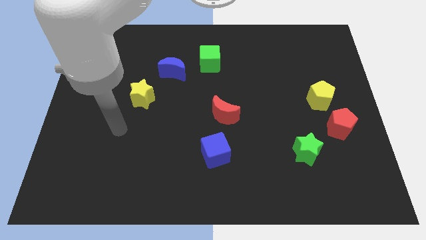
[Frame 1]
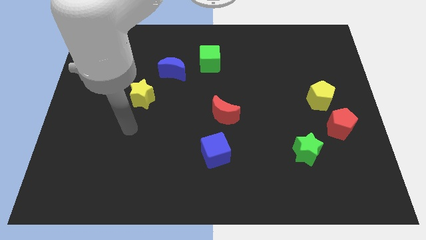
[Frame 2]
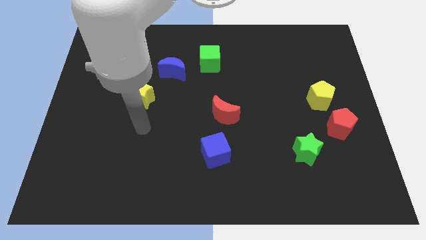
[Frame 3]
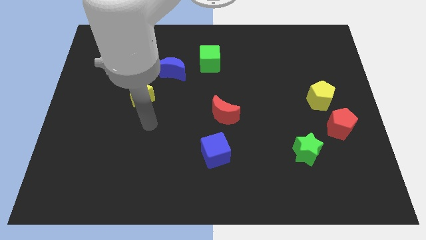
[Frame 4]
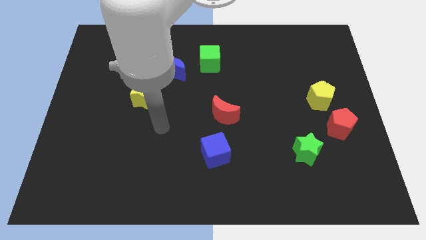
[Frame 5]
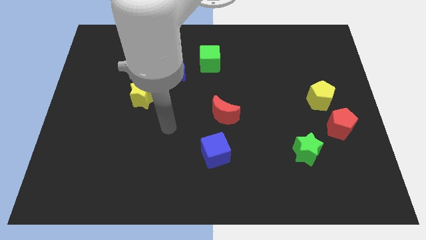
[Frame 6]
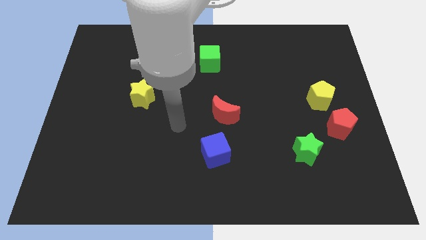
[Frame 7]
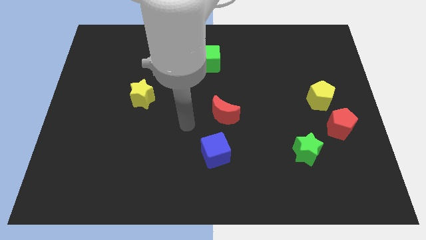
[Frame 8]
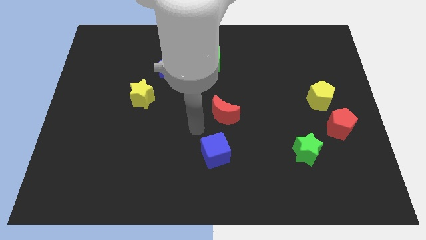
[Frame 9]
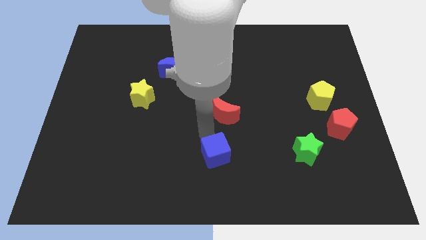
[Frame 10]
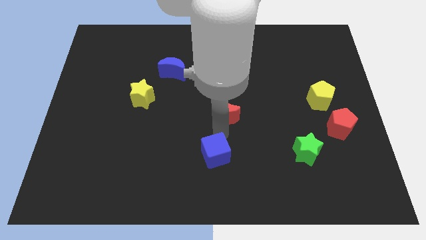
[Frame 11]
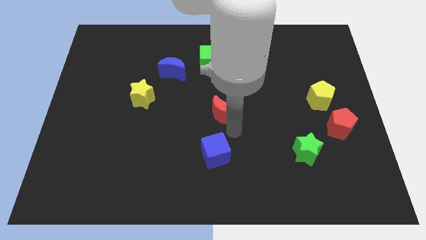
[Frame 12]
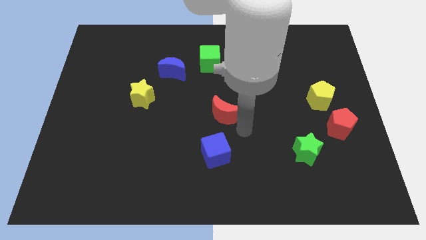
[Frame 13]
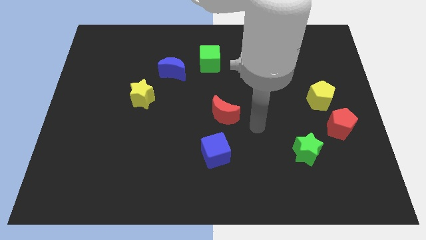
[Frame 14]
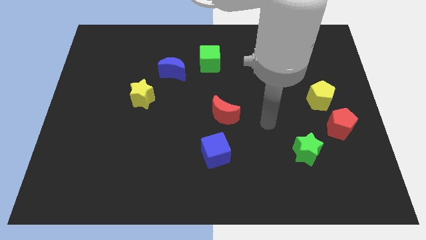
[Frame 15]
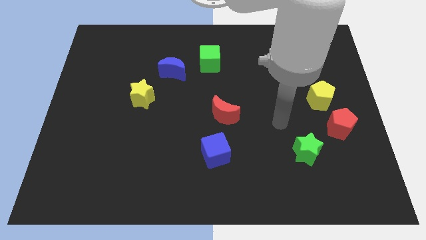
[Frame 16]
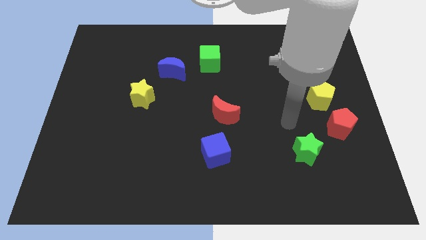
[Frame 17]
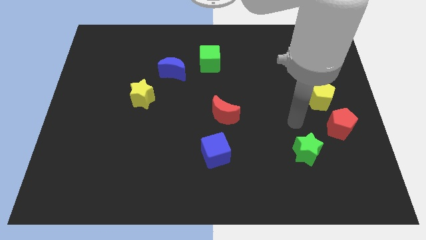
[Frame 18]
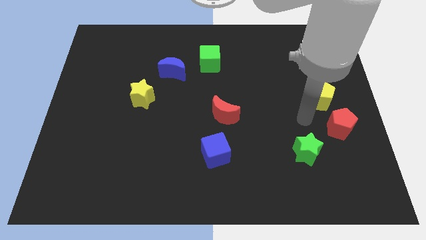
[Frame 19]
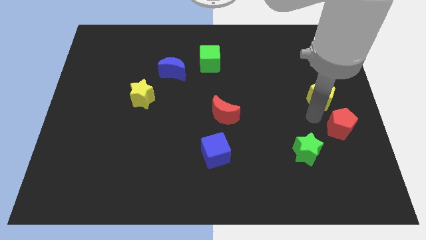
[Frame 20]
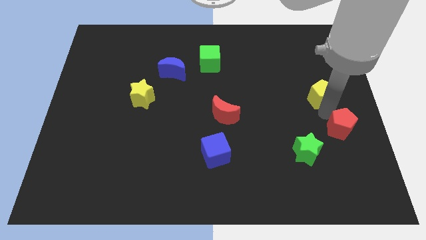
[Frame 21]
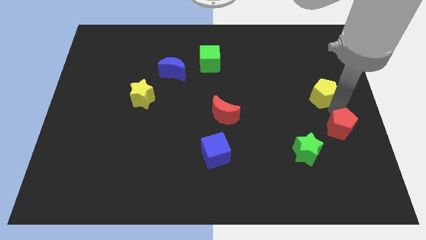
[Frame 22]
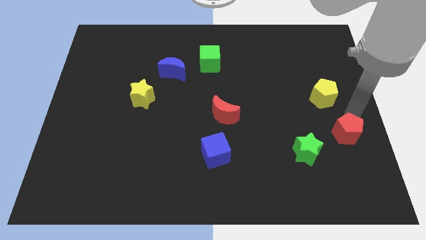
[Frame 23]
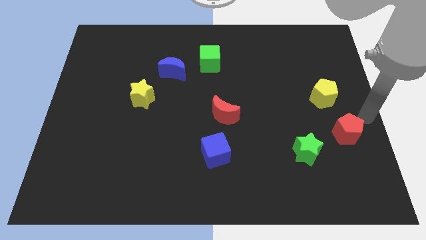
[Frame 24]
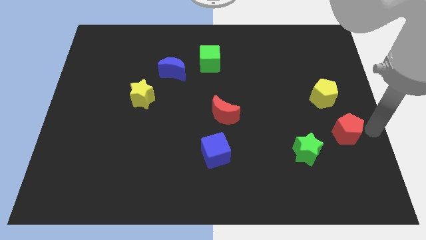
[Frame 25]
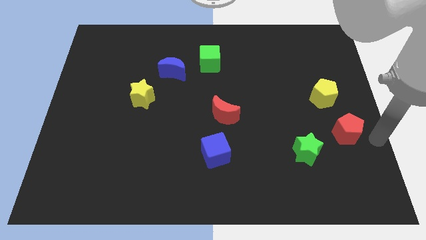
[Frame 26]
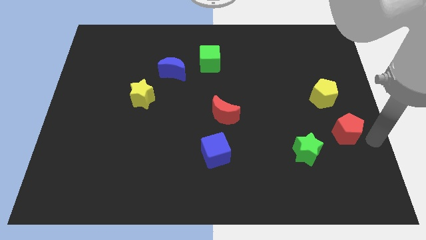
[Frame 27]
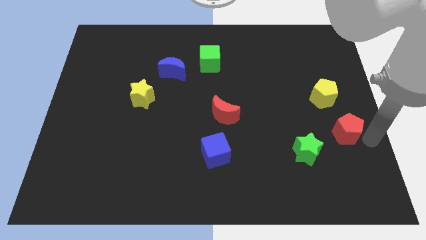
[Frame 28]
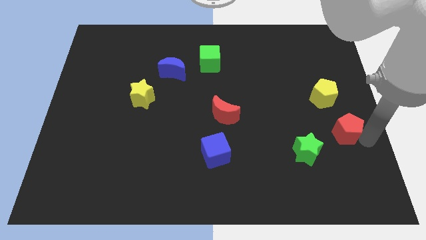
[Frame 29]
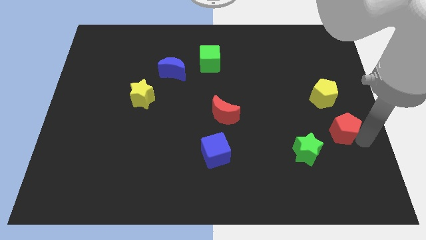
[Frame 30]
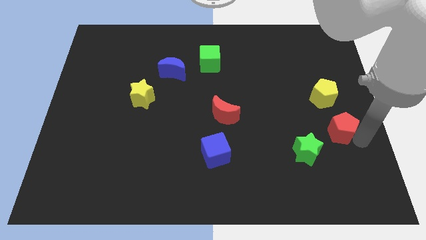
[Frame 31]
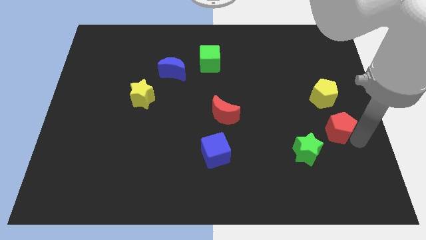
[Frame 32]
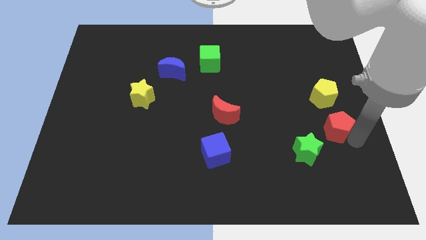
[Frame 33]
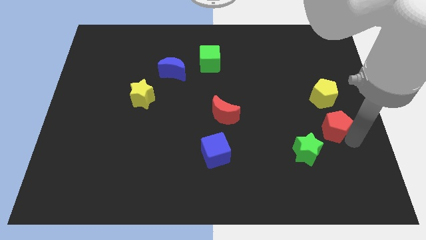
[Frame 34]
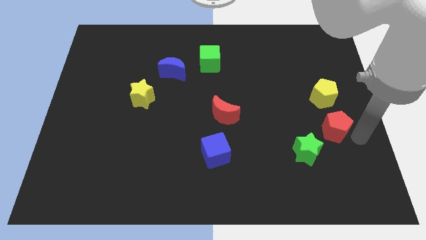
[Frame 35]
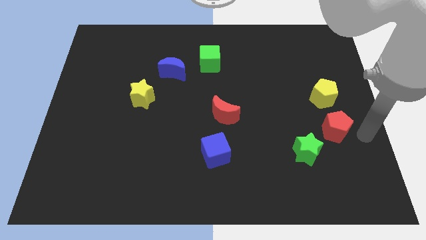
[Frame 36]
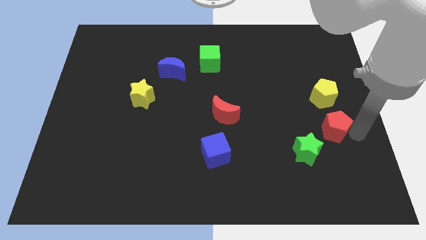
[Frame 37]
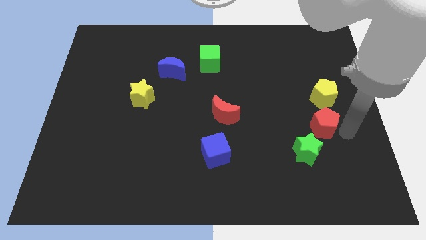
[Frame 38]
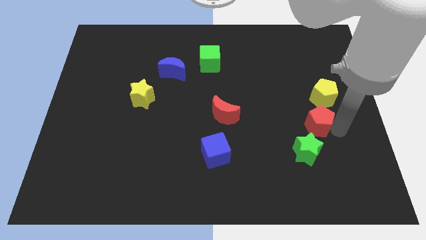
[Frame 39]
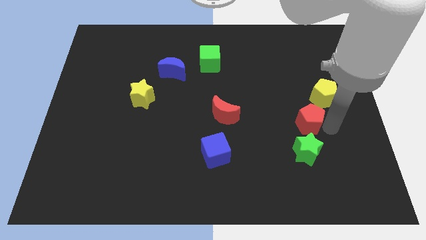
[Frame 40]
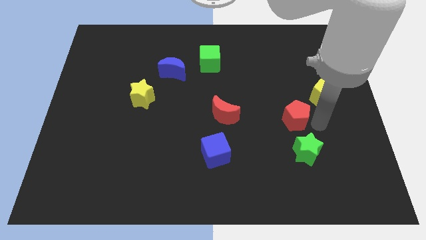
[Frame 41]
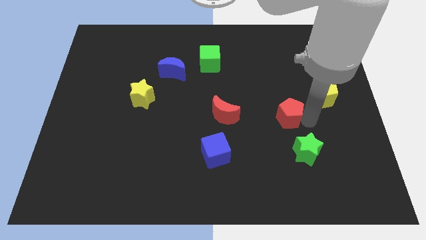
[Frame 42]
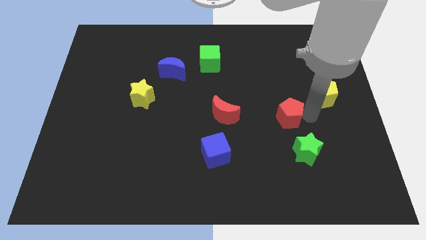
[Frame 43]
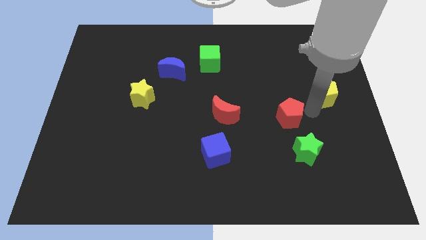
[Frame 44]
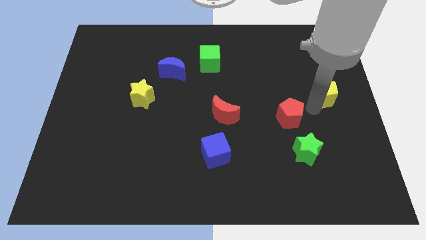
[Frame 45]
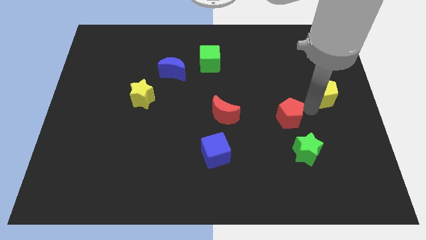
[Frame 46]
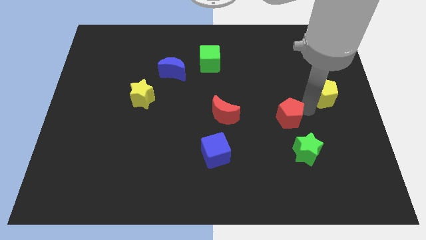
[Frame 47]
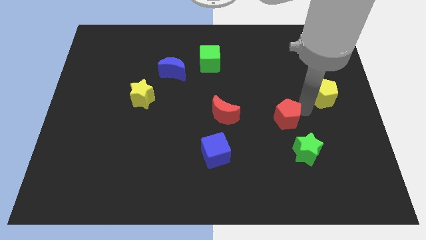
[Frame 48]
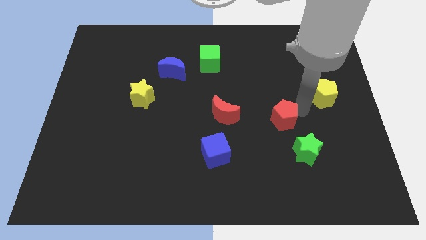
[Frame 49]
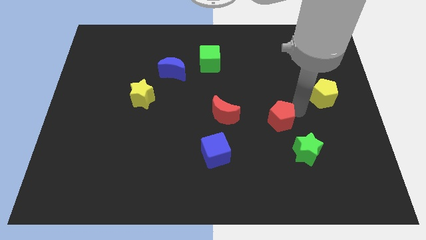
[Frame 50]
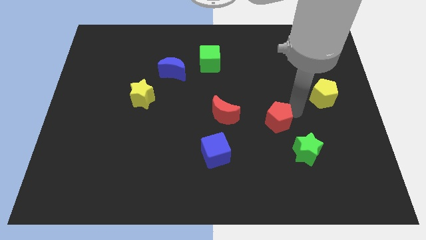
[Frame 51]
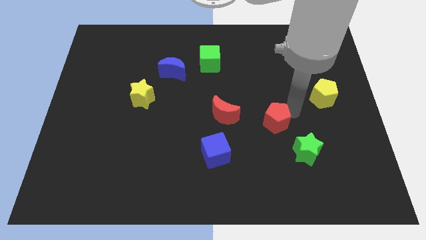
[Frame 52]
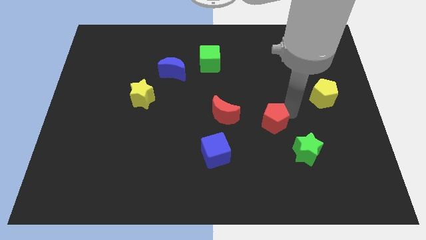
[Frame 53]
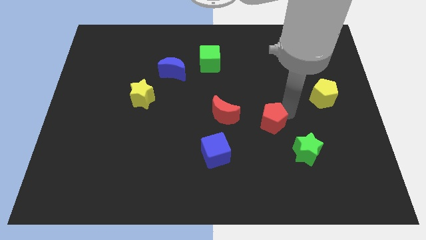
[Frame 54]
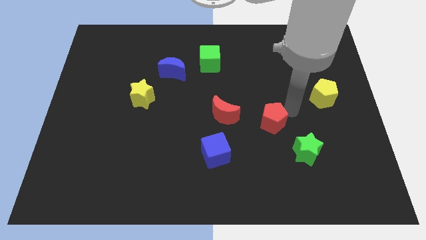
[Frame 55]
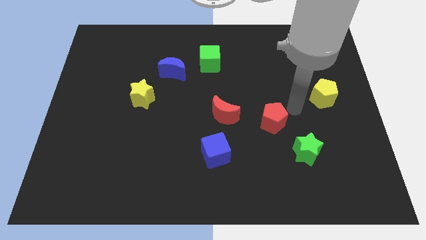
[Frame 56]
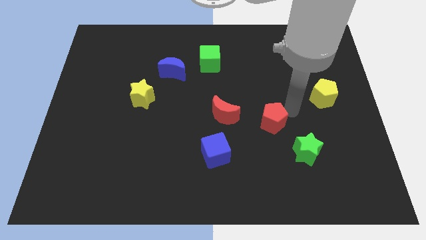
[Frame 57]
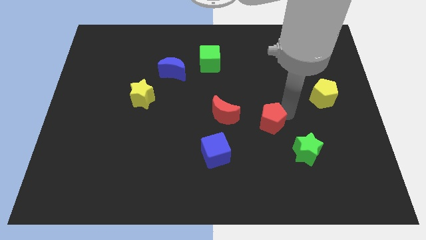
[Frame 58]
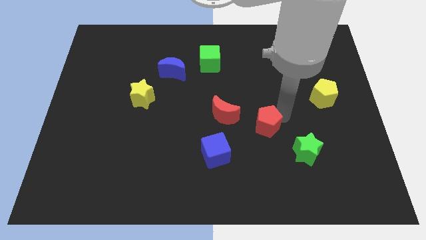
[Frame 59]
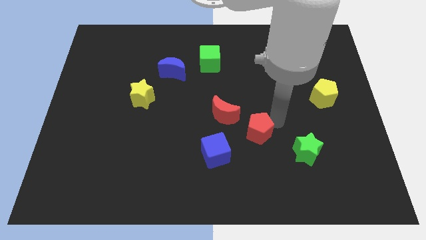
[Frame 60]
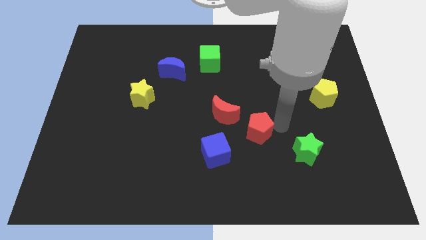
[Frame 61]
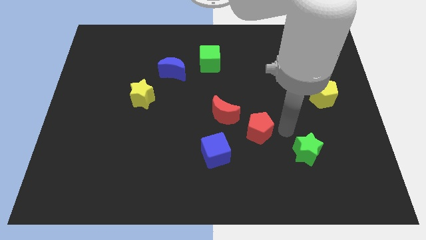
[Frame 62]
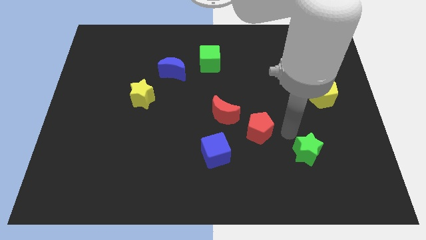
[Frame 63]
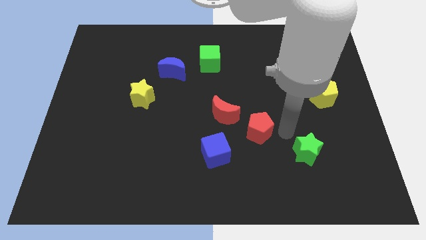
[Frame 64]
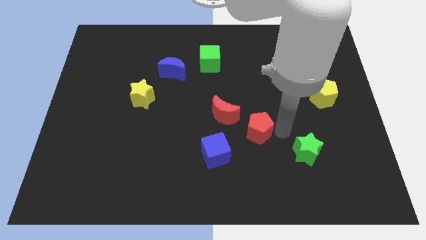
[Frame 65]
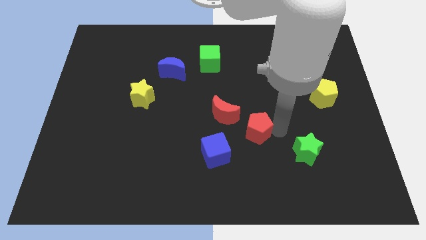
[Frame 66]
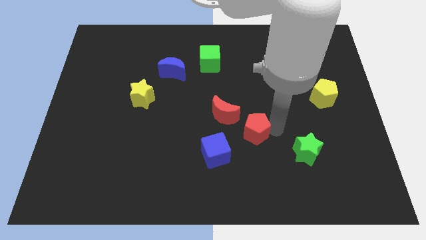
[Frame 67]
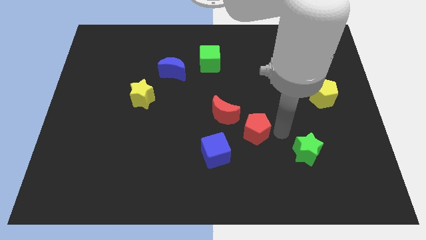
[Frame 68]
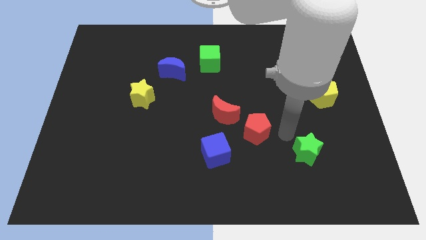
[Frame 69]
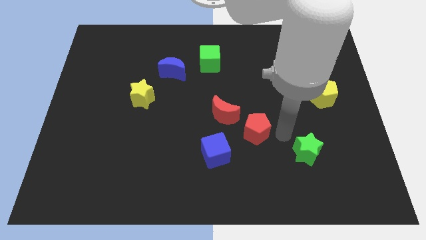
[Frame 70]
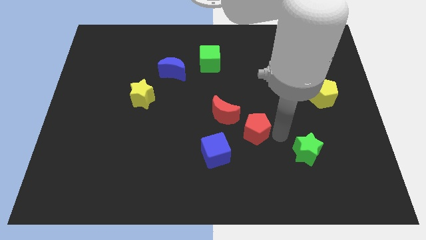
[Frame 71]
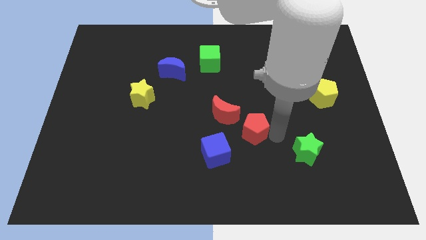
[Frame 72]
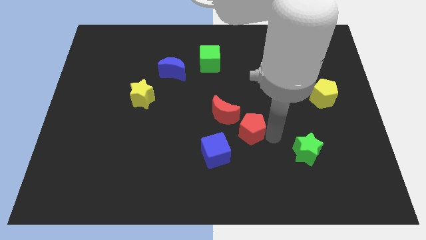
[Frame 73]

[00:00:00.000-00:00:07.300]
move the red pentagon left

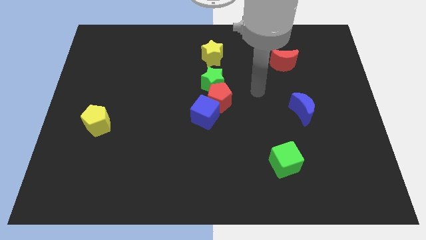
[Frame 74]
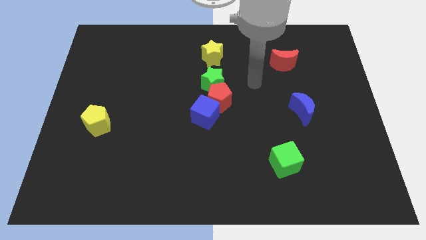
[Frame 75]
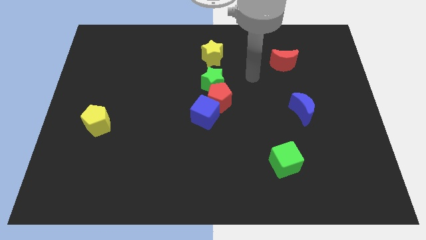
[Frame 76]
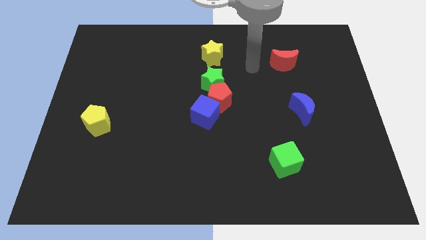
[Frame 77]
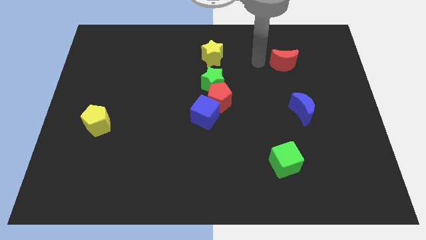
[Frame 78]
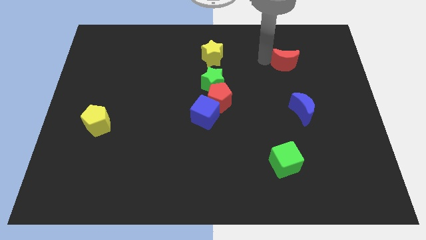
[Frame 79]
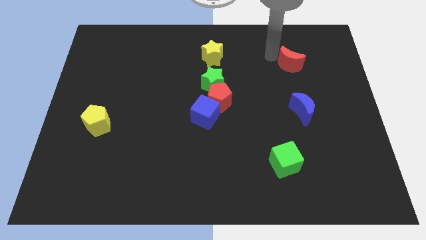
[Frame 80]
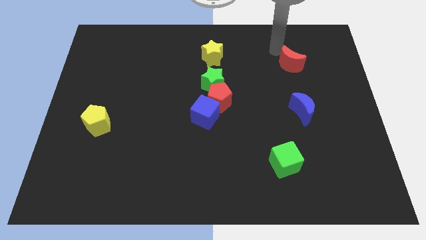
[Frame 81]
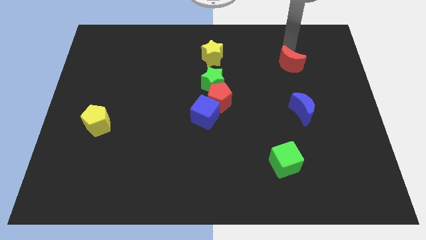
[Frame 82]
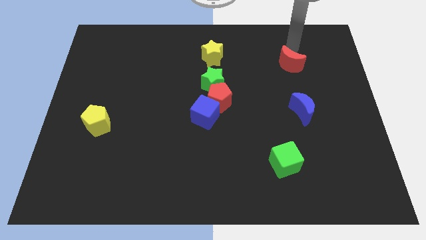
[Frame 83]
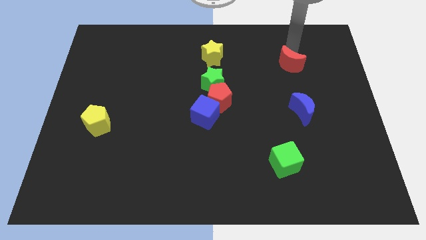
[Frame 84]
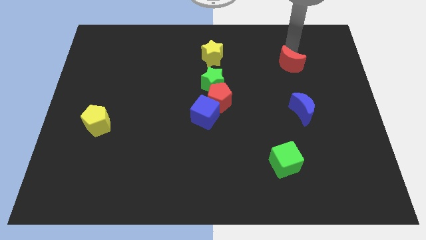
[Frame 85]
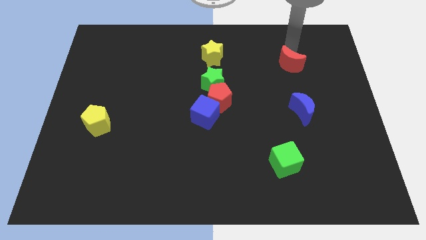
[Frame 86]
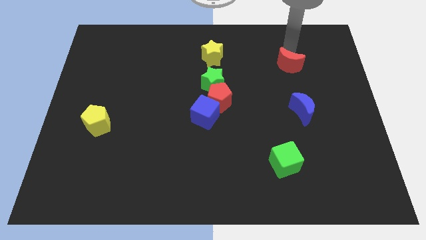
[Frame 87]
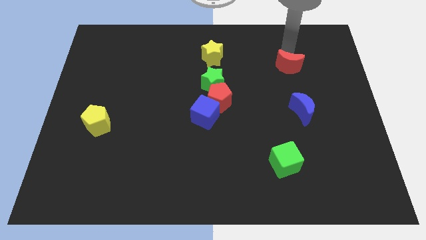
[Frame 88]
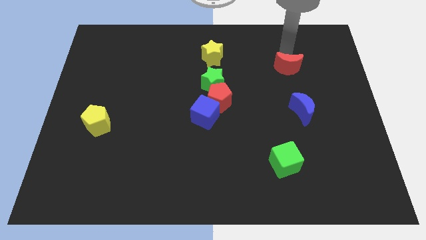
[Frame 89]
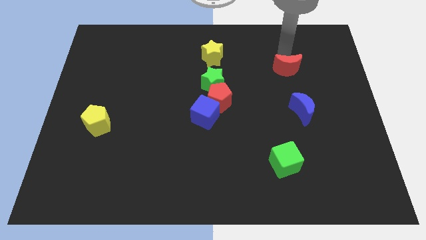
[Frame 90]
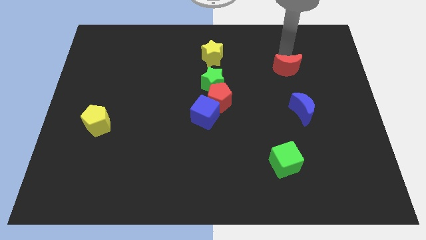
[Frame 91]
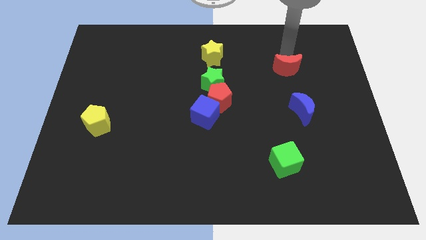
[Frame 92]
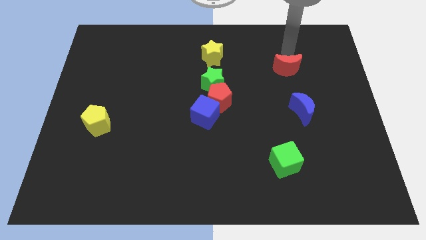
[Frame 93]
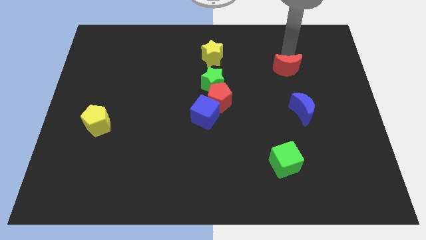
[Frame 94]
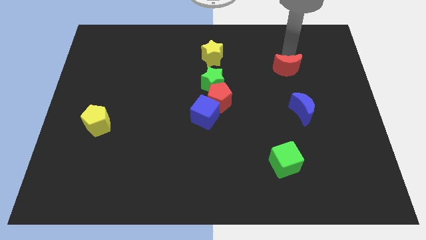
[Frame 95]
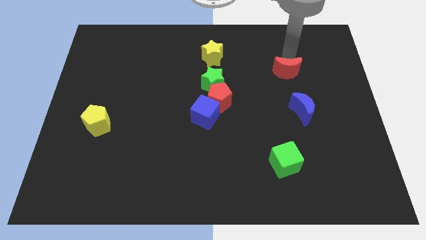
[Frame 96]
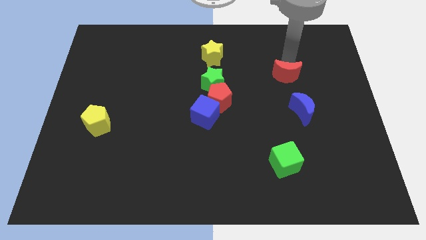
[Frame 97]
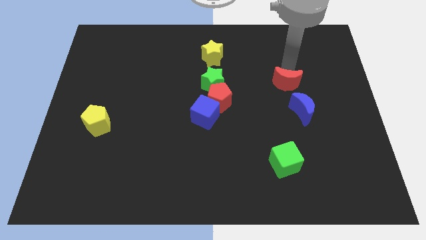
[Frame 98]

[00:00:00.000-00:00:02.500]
push the red moon down a little
